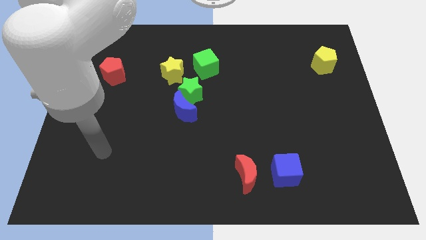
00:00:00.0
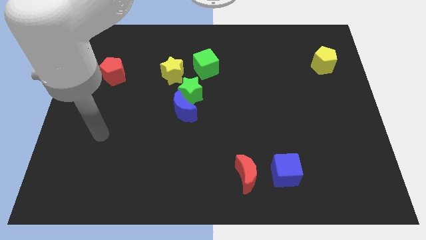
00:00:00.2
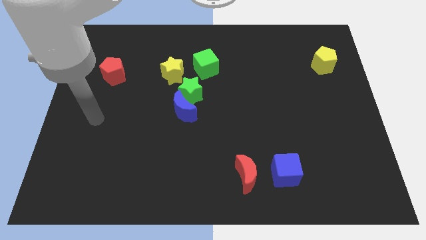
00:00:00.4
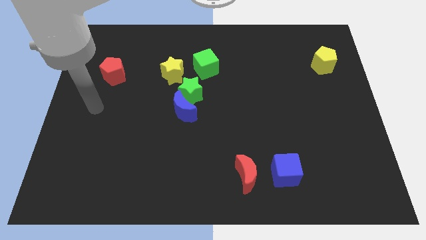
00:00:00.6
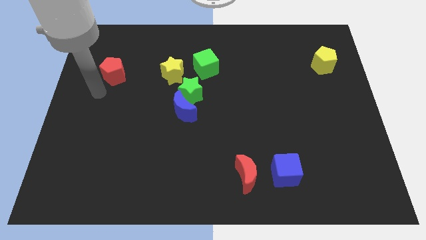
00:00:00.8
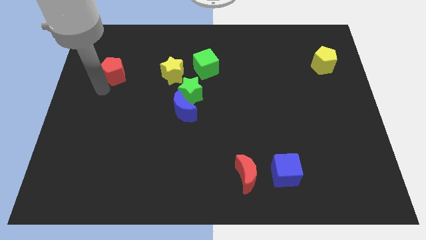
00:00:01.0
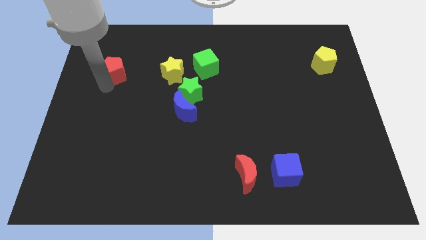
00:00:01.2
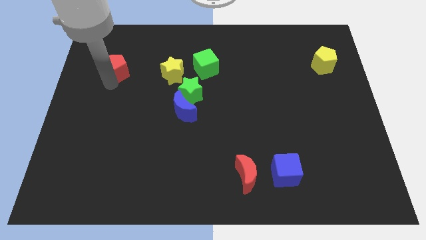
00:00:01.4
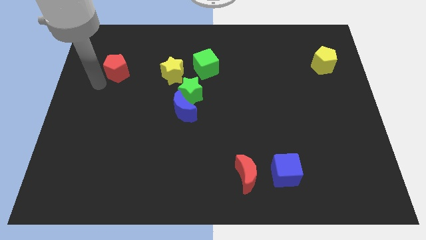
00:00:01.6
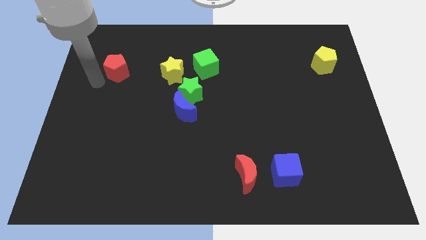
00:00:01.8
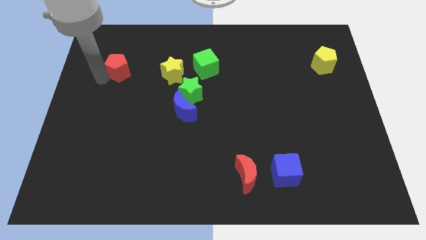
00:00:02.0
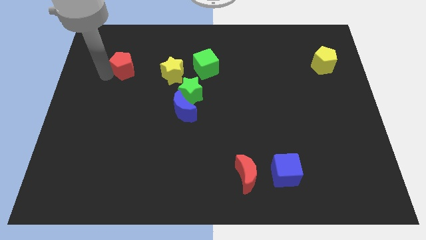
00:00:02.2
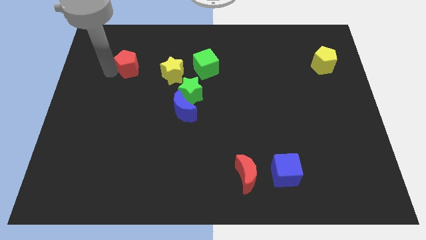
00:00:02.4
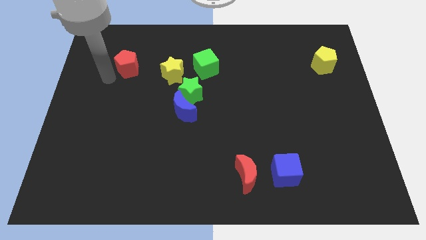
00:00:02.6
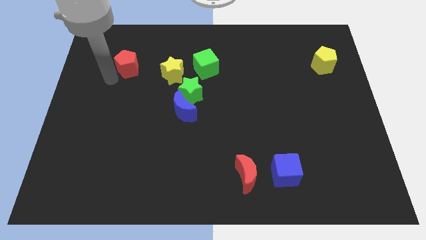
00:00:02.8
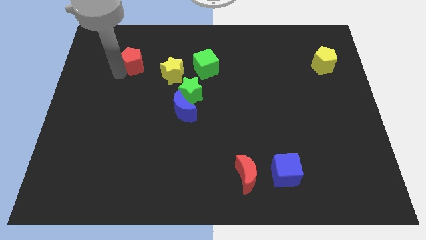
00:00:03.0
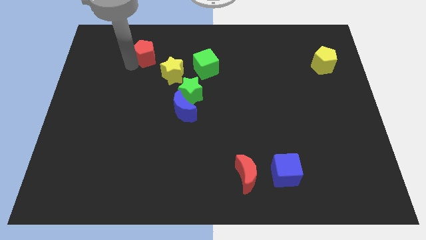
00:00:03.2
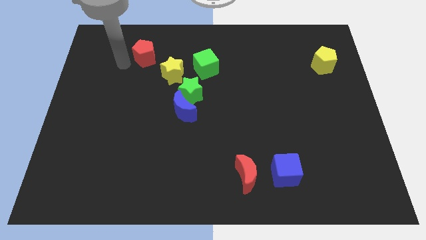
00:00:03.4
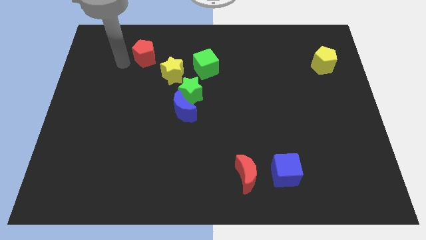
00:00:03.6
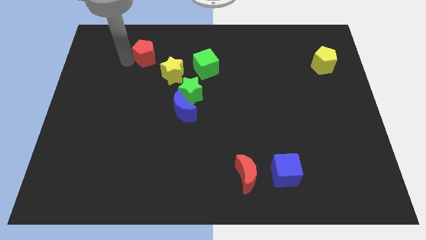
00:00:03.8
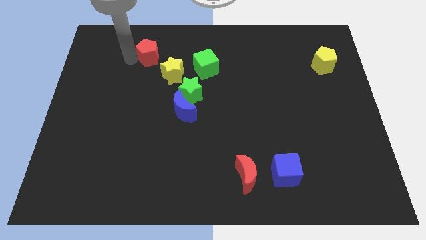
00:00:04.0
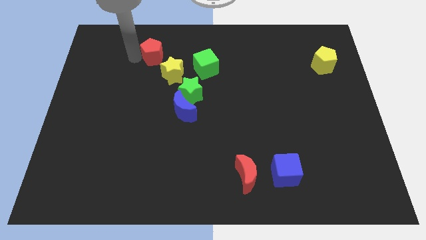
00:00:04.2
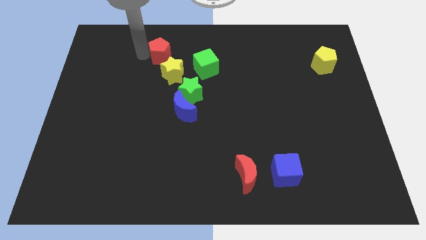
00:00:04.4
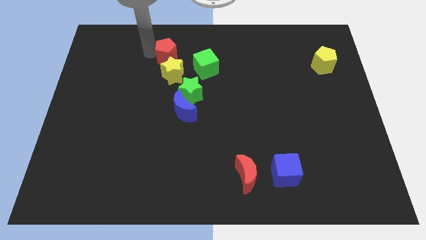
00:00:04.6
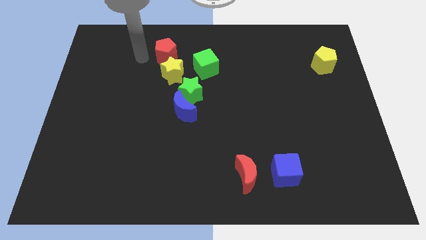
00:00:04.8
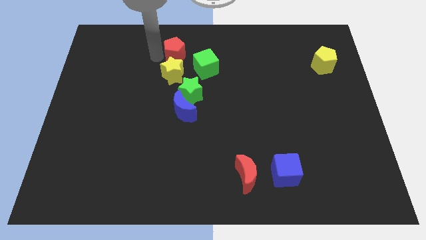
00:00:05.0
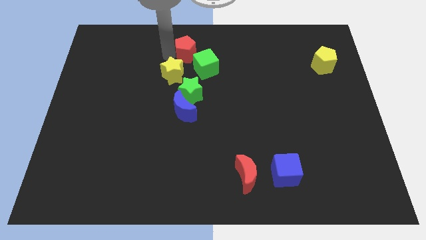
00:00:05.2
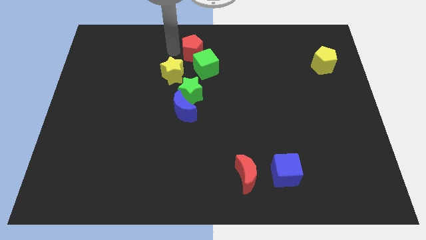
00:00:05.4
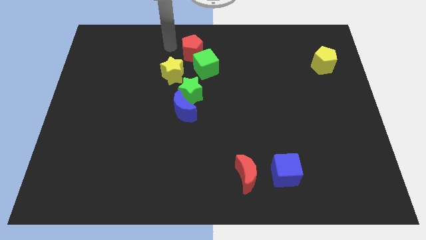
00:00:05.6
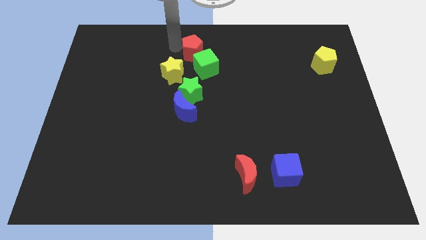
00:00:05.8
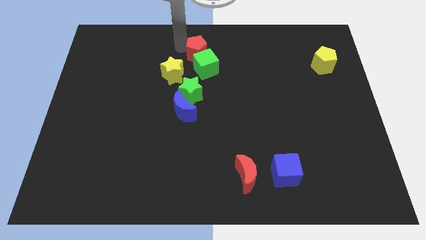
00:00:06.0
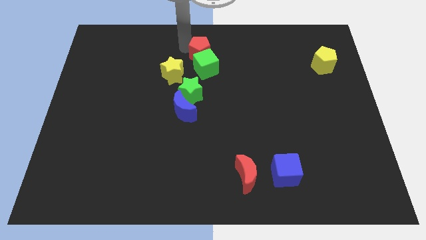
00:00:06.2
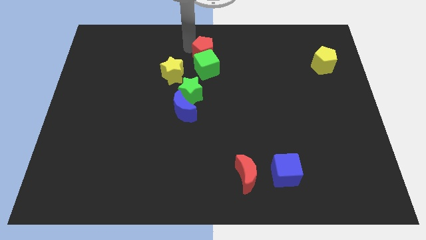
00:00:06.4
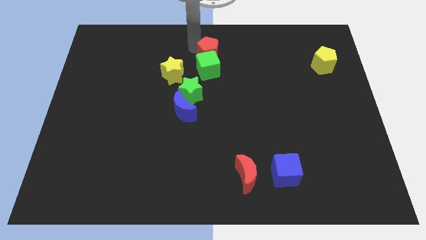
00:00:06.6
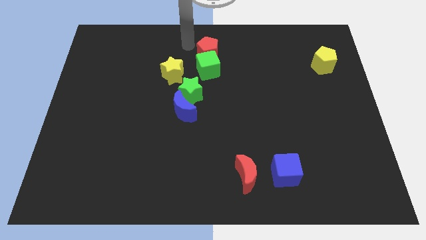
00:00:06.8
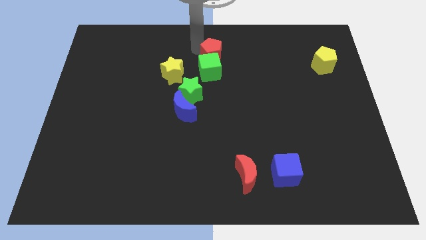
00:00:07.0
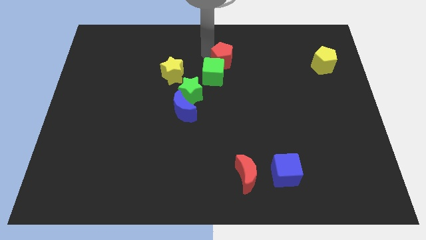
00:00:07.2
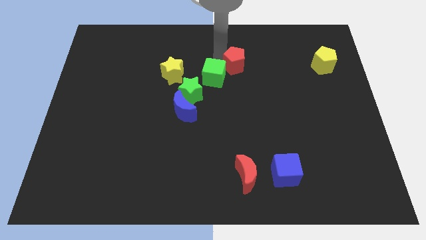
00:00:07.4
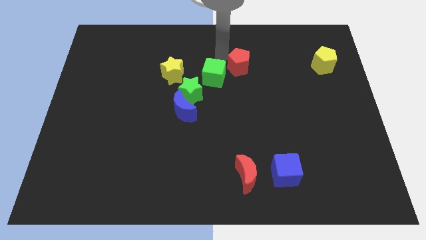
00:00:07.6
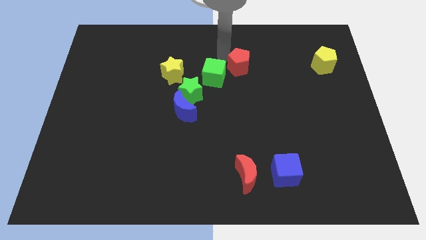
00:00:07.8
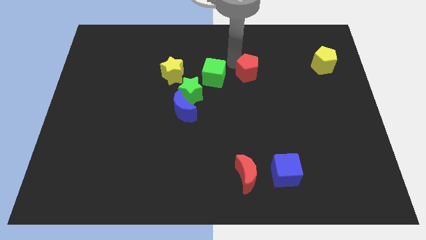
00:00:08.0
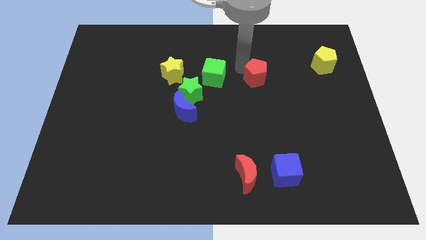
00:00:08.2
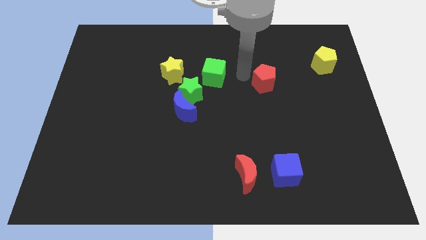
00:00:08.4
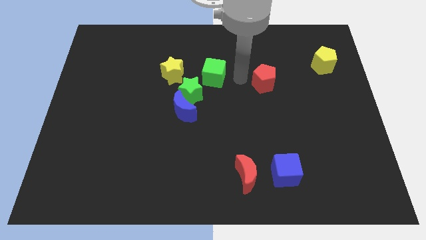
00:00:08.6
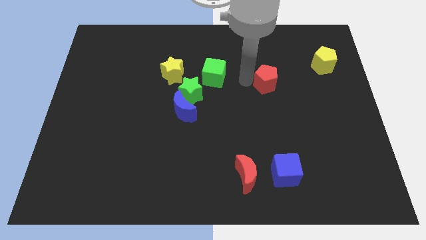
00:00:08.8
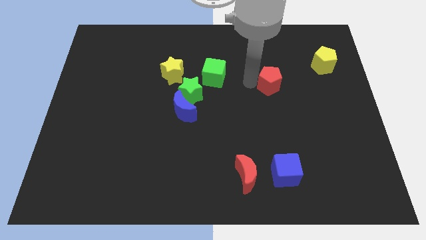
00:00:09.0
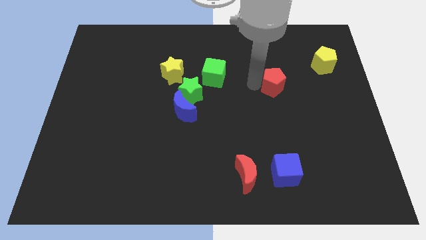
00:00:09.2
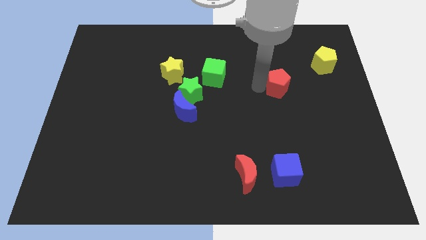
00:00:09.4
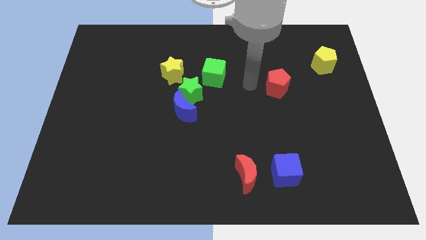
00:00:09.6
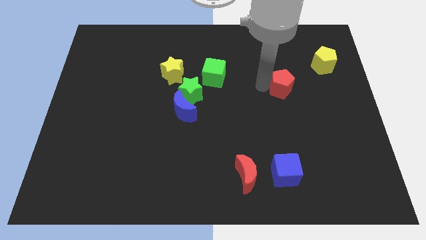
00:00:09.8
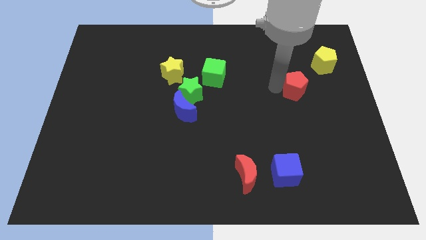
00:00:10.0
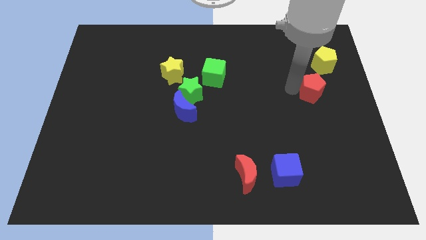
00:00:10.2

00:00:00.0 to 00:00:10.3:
put the red pentagon below the yellow pentagon

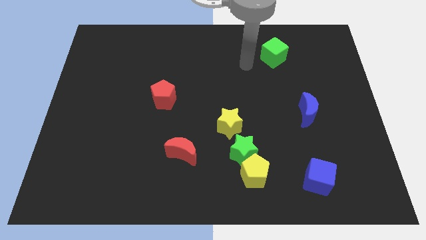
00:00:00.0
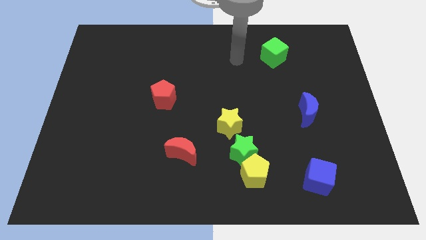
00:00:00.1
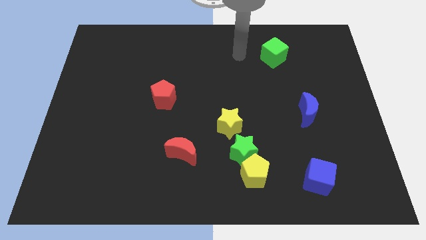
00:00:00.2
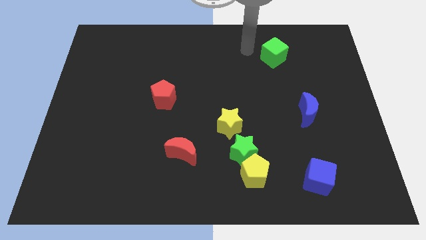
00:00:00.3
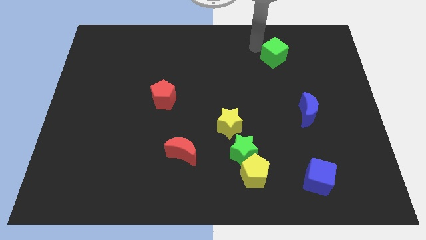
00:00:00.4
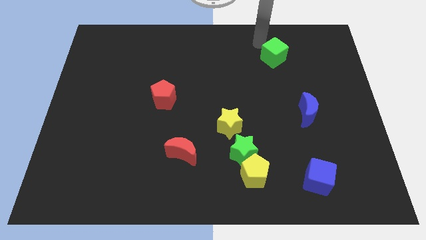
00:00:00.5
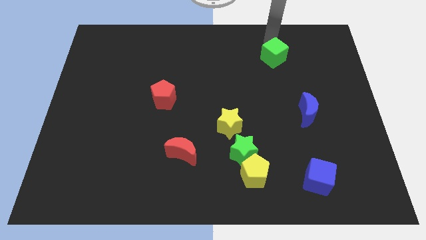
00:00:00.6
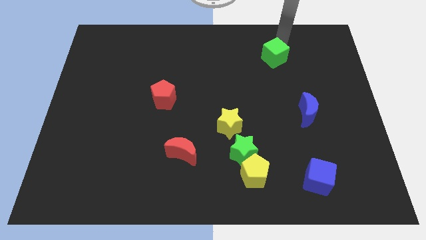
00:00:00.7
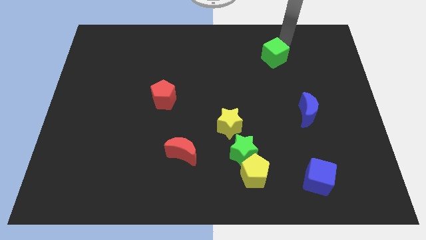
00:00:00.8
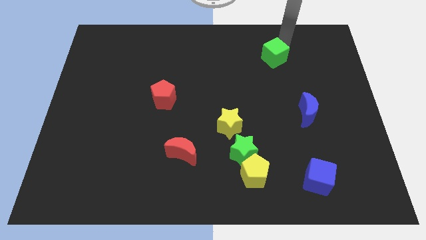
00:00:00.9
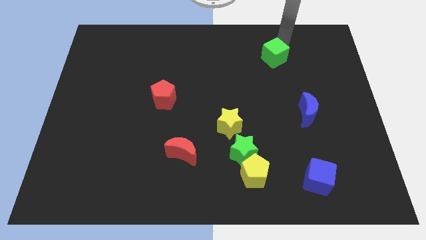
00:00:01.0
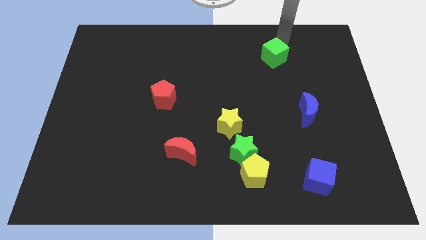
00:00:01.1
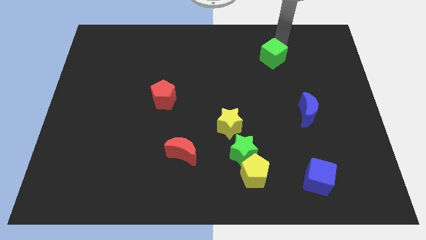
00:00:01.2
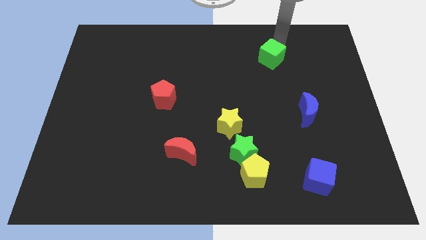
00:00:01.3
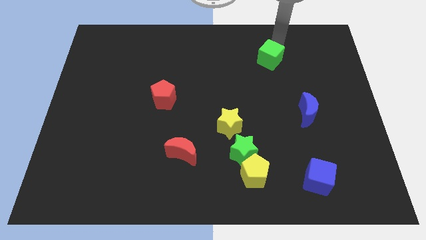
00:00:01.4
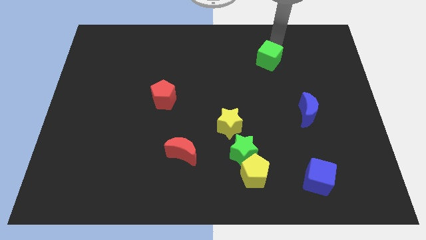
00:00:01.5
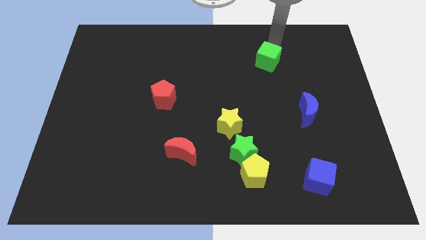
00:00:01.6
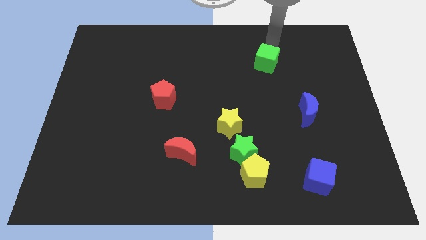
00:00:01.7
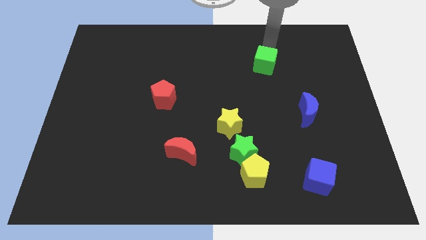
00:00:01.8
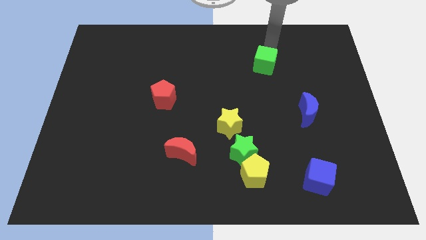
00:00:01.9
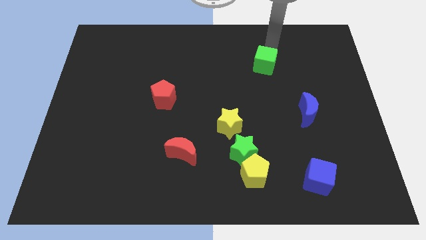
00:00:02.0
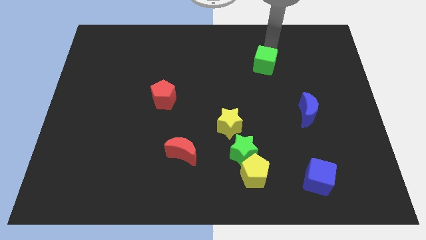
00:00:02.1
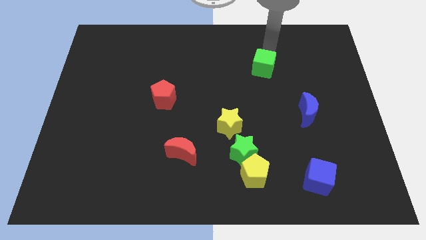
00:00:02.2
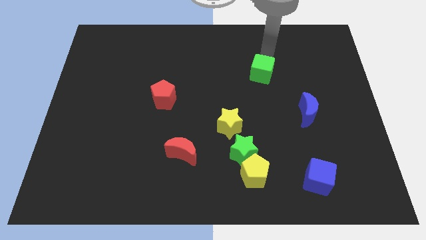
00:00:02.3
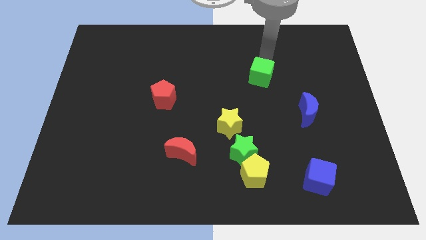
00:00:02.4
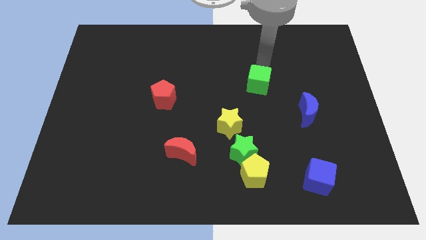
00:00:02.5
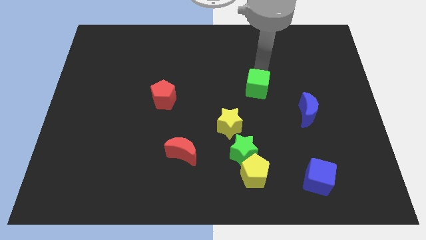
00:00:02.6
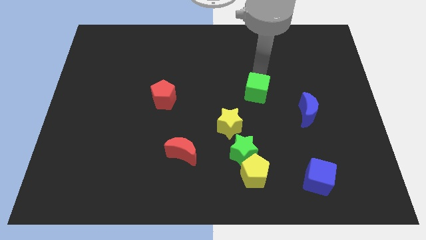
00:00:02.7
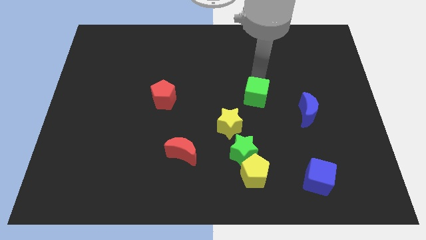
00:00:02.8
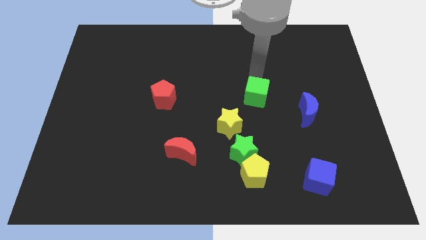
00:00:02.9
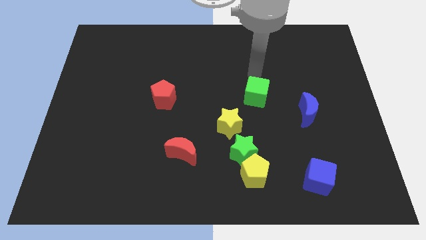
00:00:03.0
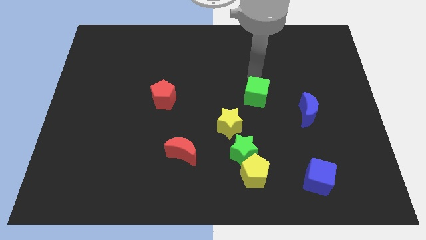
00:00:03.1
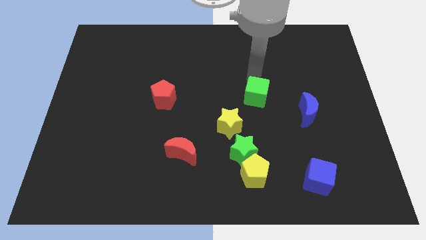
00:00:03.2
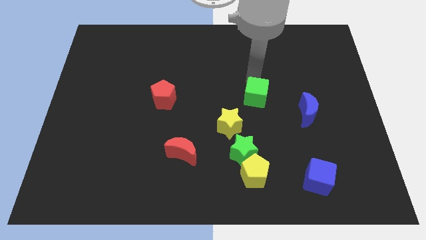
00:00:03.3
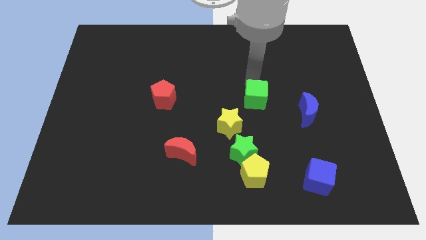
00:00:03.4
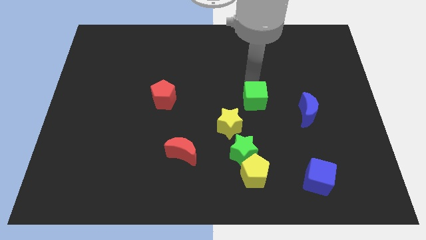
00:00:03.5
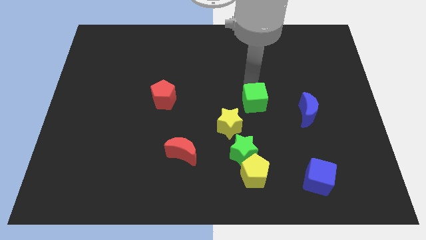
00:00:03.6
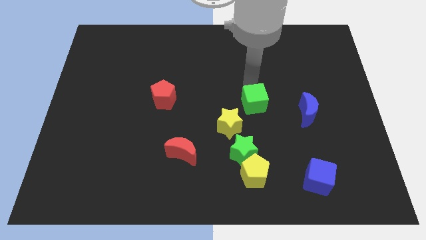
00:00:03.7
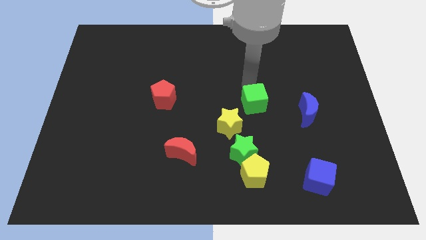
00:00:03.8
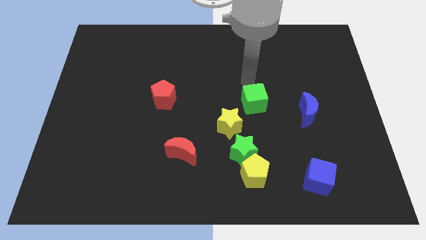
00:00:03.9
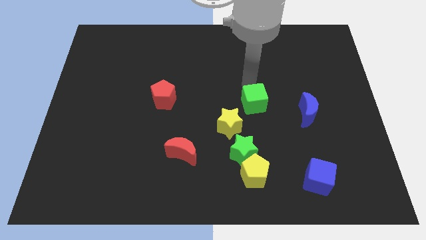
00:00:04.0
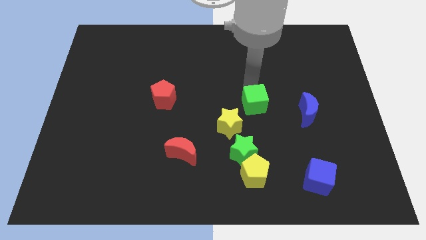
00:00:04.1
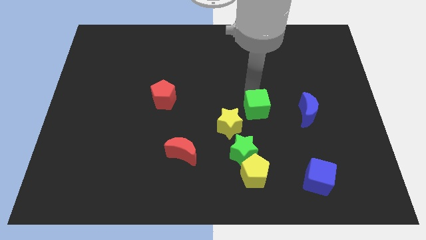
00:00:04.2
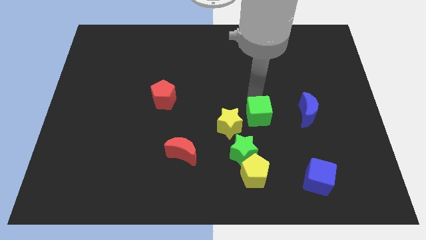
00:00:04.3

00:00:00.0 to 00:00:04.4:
move the green cube to the top of the yellow pentagon
